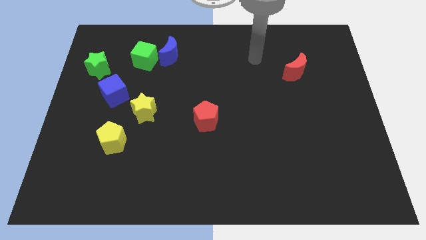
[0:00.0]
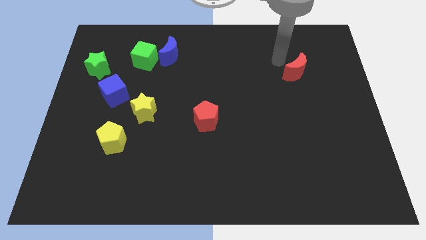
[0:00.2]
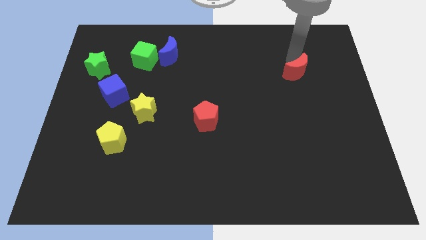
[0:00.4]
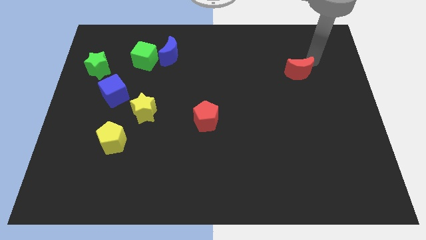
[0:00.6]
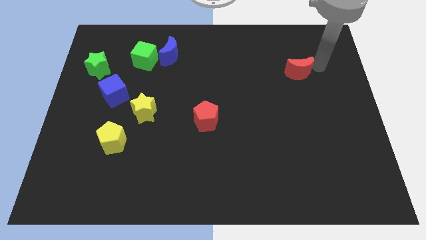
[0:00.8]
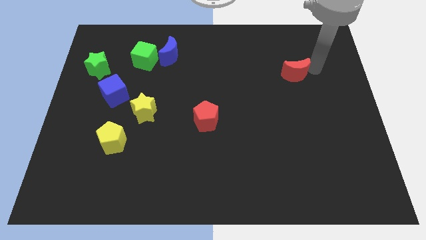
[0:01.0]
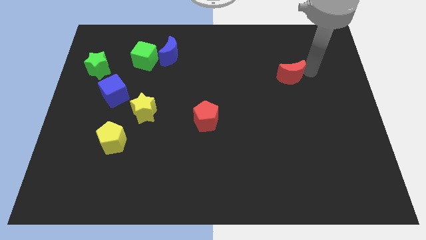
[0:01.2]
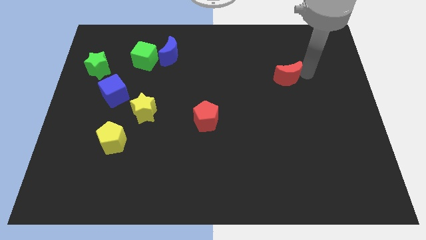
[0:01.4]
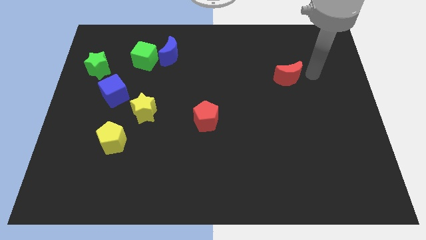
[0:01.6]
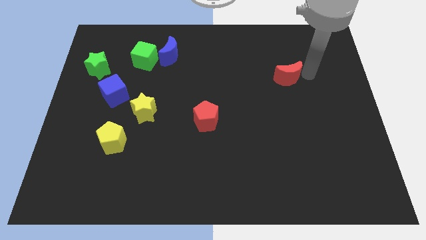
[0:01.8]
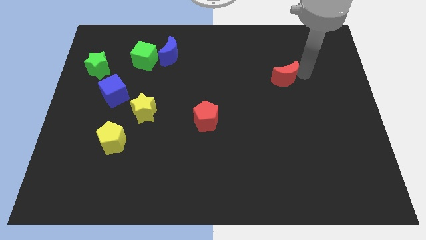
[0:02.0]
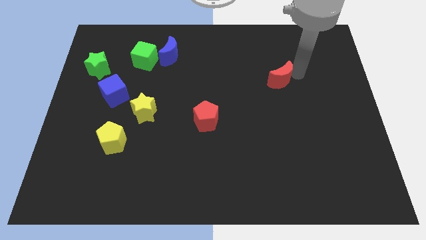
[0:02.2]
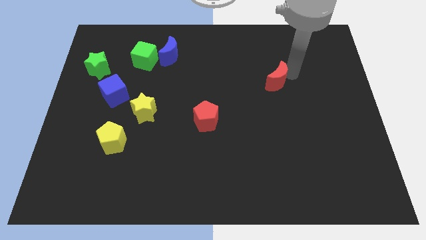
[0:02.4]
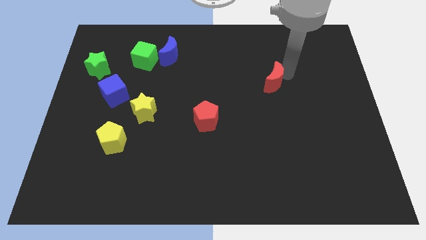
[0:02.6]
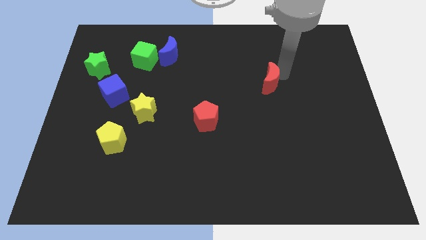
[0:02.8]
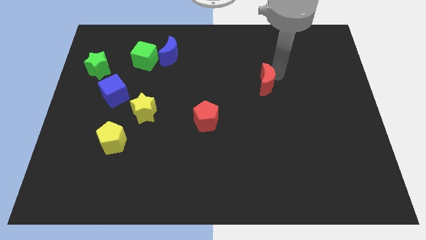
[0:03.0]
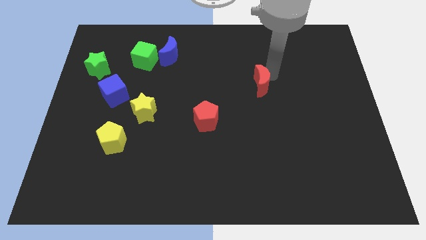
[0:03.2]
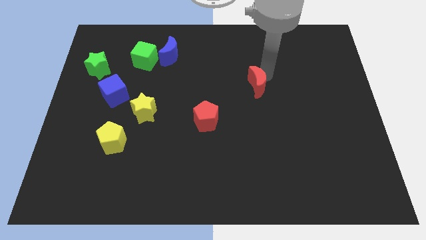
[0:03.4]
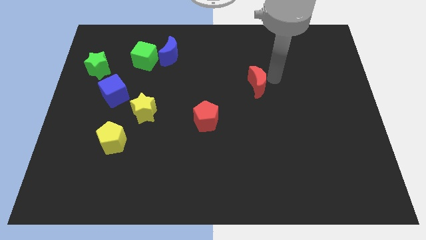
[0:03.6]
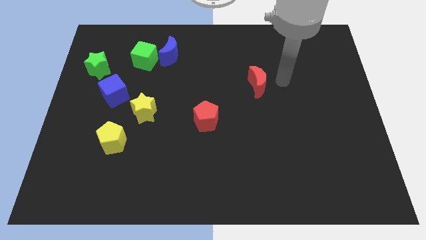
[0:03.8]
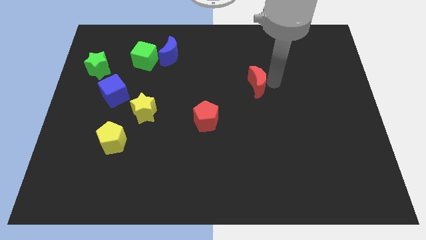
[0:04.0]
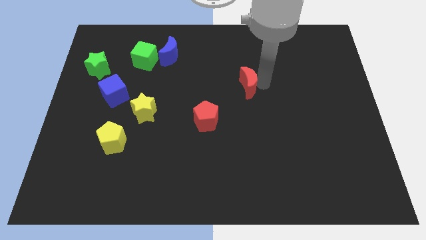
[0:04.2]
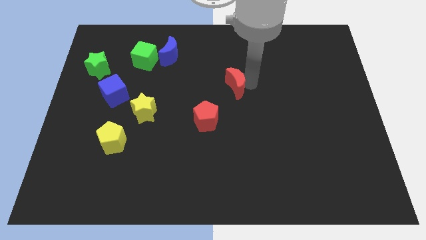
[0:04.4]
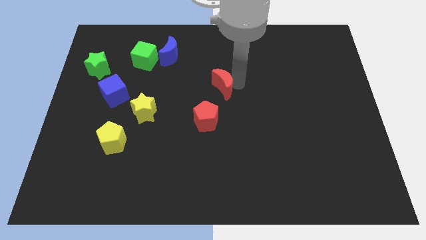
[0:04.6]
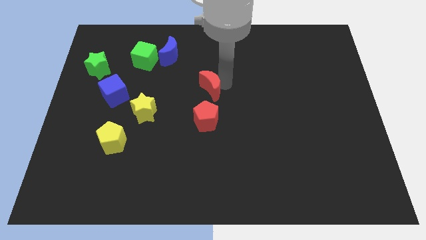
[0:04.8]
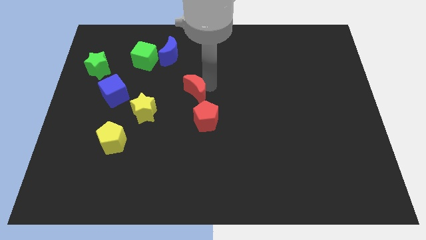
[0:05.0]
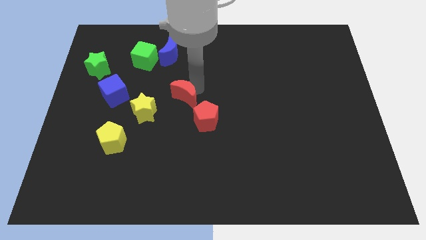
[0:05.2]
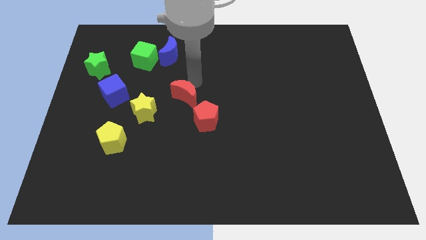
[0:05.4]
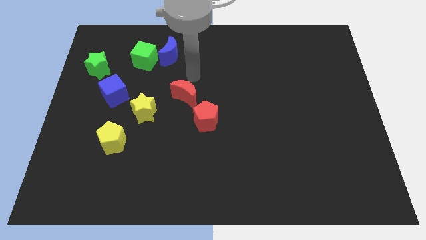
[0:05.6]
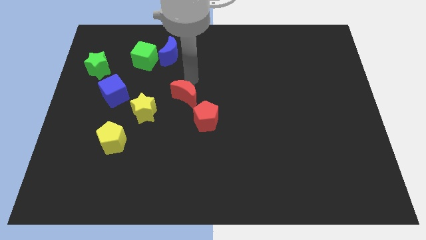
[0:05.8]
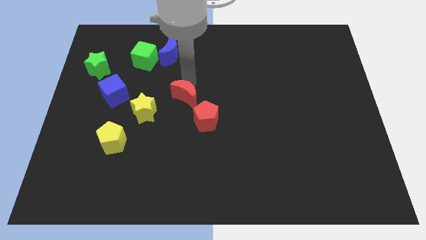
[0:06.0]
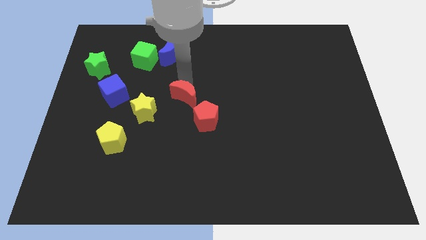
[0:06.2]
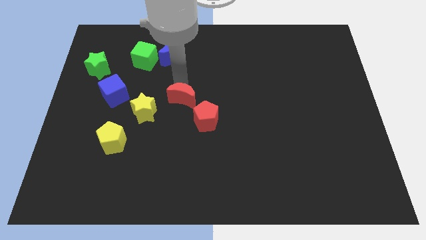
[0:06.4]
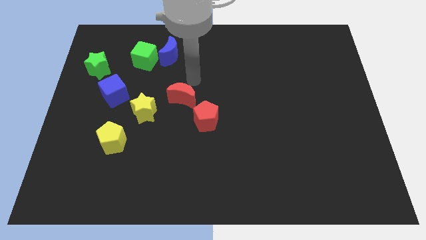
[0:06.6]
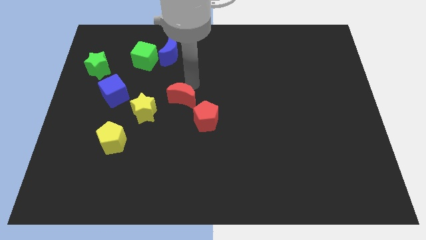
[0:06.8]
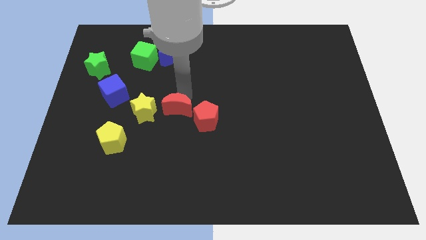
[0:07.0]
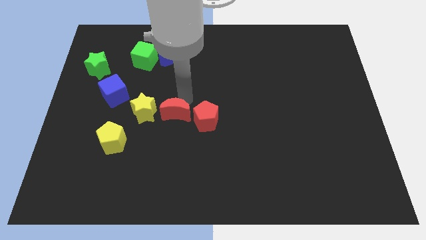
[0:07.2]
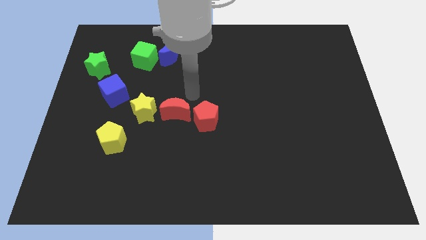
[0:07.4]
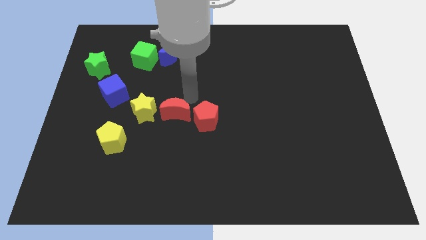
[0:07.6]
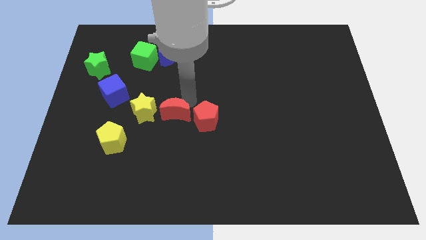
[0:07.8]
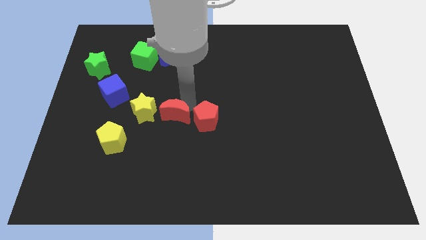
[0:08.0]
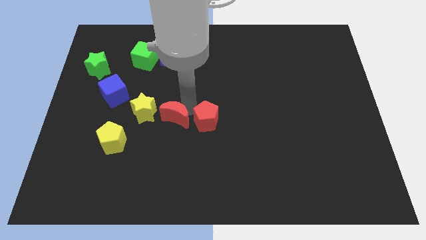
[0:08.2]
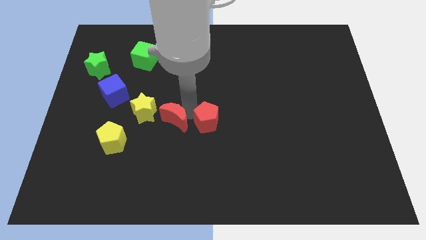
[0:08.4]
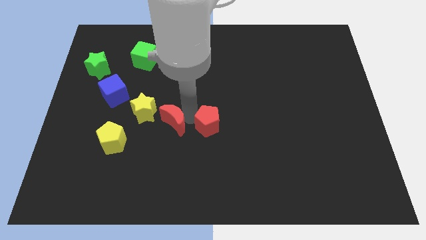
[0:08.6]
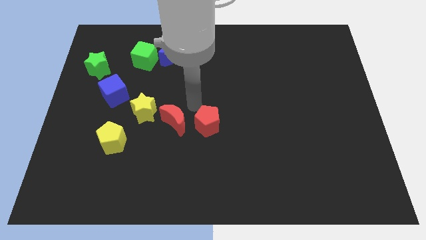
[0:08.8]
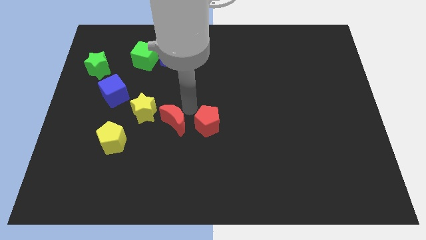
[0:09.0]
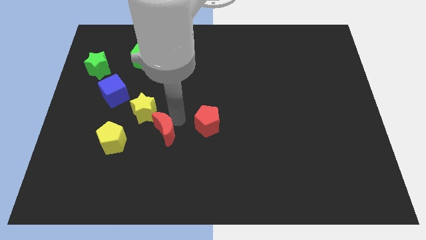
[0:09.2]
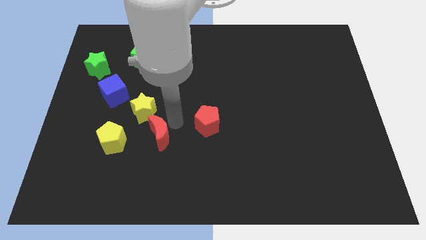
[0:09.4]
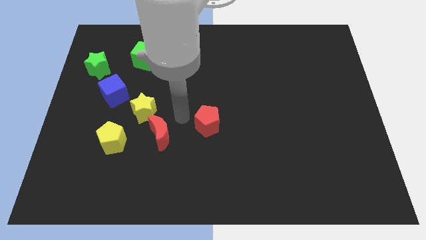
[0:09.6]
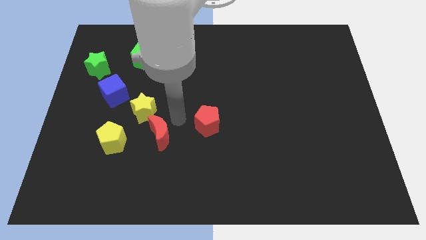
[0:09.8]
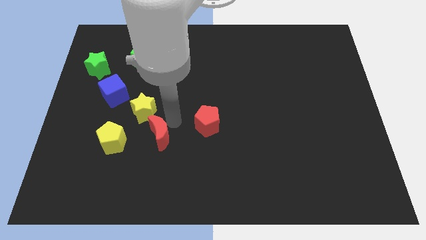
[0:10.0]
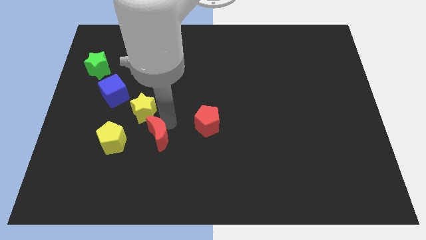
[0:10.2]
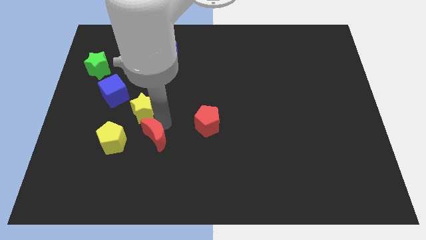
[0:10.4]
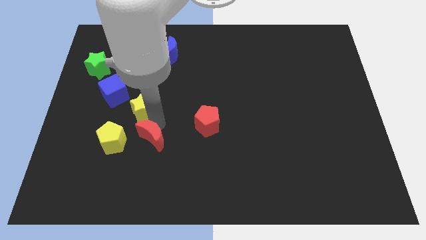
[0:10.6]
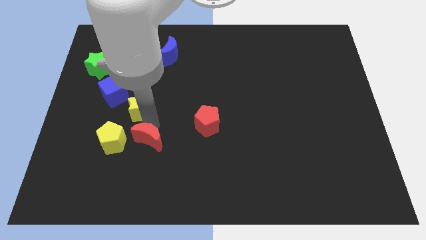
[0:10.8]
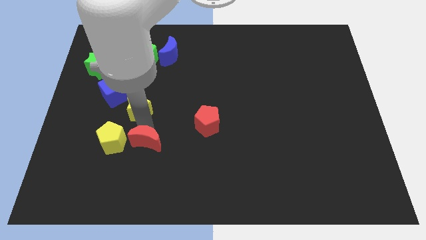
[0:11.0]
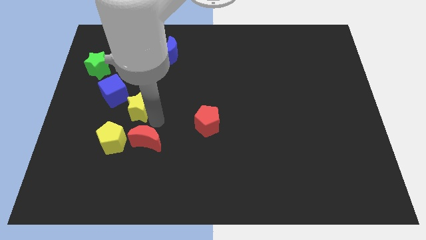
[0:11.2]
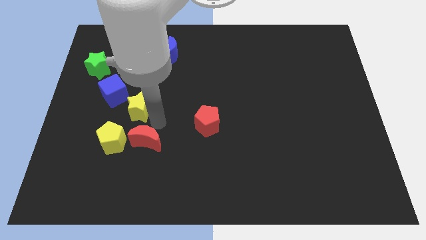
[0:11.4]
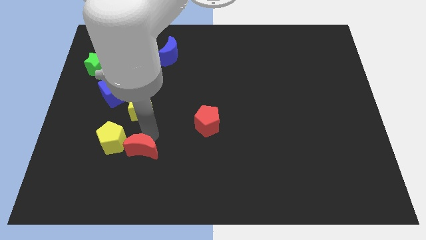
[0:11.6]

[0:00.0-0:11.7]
slide the red moon to the bottom right side of the yellow pentagon

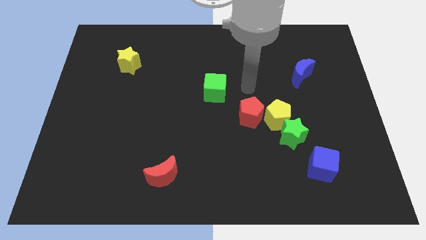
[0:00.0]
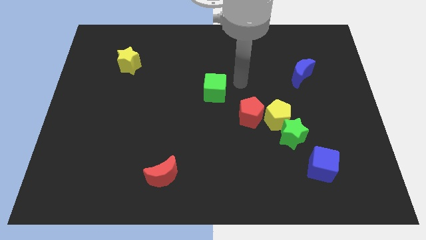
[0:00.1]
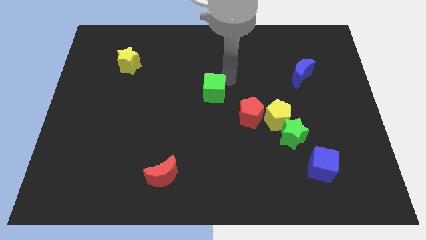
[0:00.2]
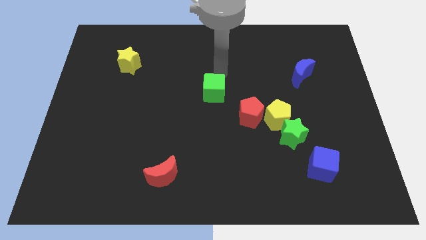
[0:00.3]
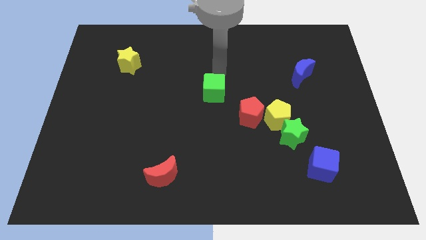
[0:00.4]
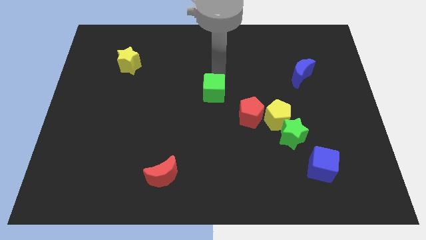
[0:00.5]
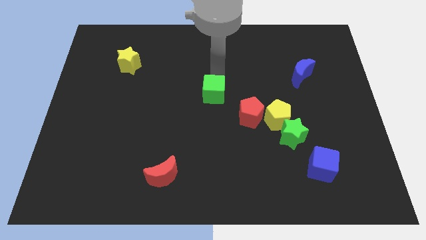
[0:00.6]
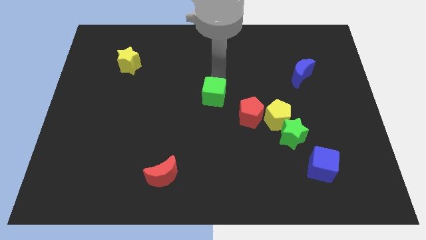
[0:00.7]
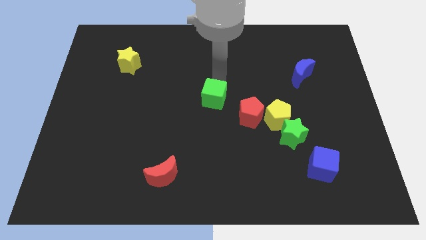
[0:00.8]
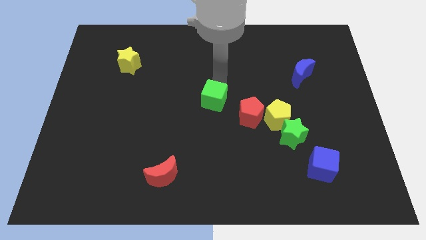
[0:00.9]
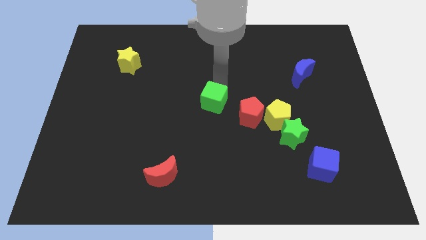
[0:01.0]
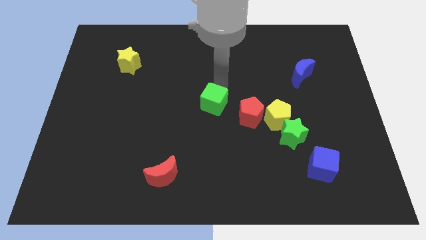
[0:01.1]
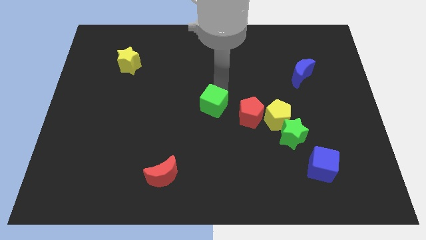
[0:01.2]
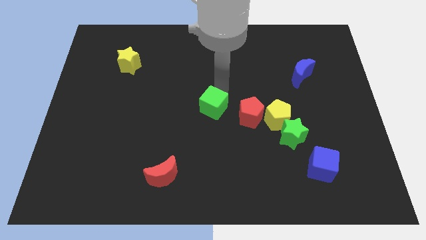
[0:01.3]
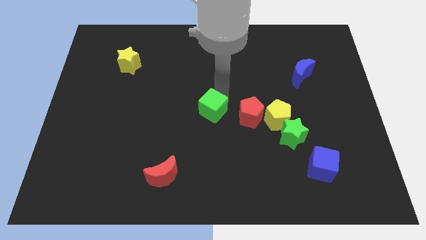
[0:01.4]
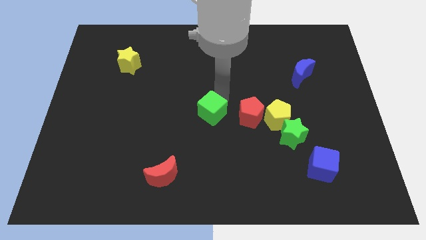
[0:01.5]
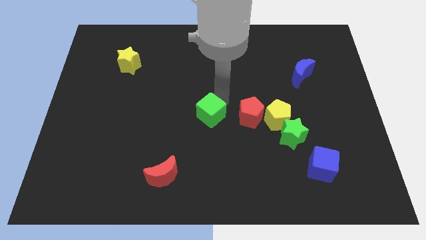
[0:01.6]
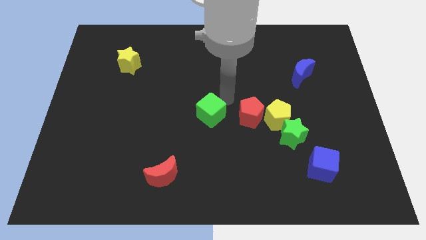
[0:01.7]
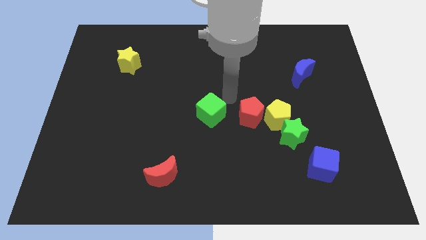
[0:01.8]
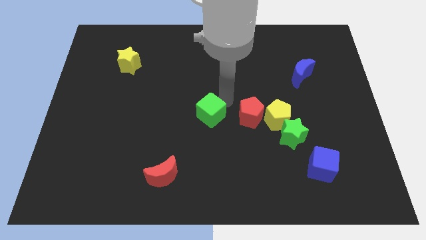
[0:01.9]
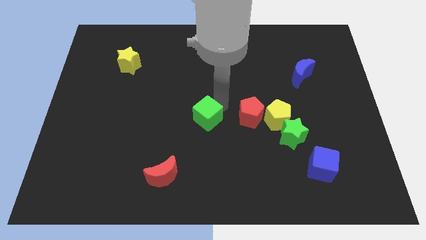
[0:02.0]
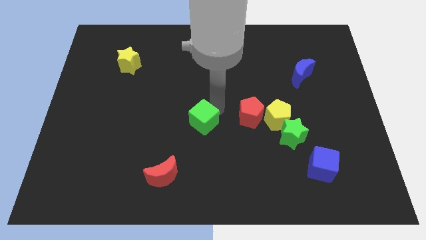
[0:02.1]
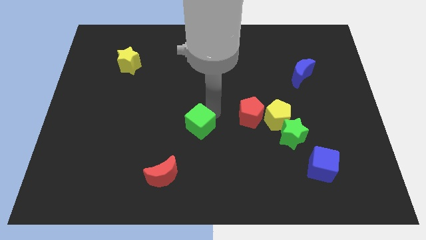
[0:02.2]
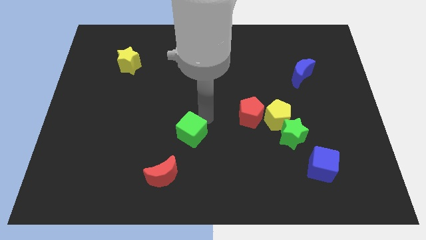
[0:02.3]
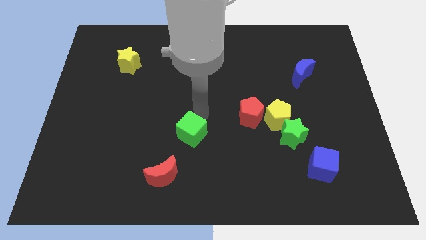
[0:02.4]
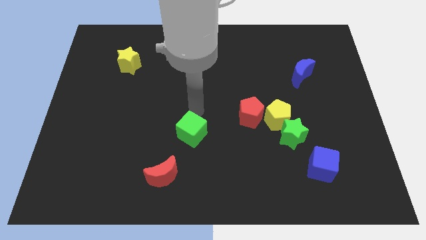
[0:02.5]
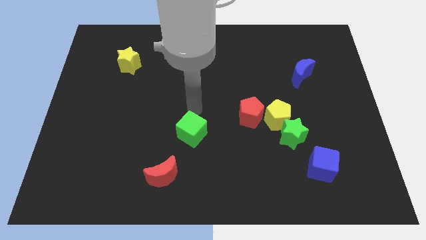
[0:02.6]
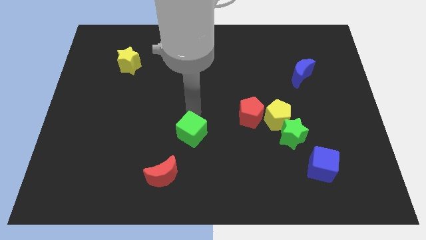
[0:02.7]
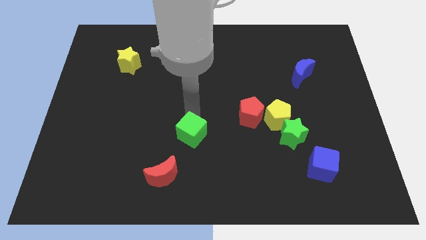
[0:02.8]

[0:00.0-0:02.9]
put the green cube diagonally up and to the right of the red moon
